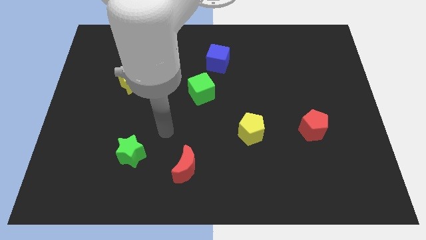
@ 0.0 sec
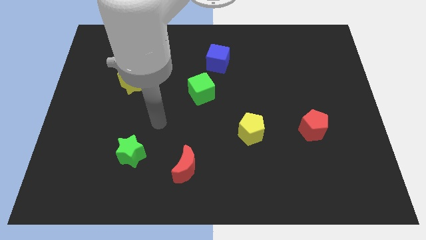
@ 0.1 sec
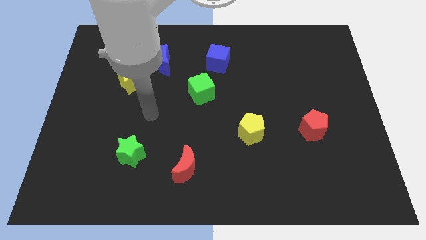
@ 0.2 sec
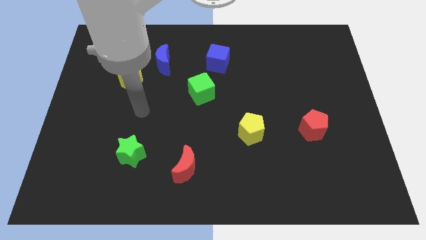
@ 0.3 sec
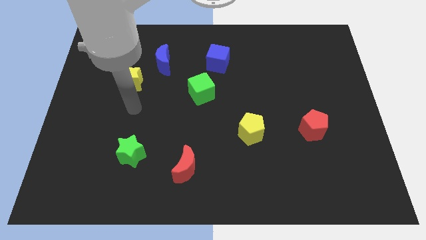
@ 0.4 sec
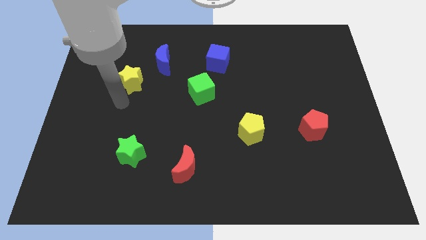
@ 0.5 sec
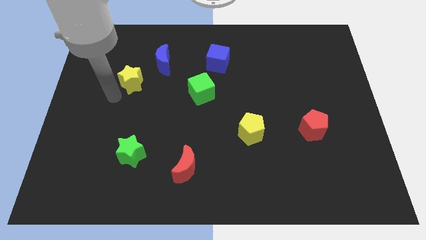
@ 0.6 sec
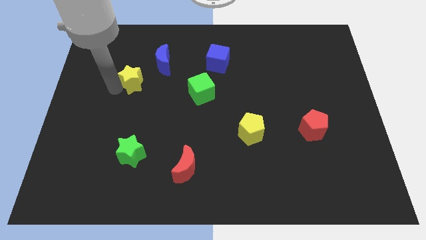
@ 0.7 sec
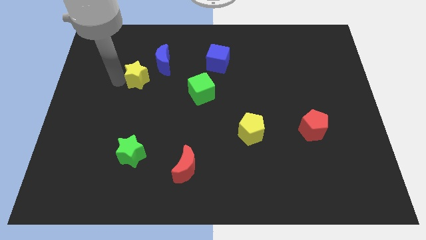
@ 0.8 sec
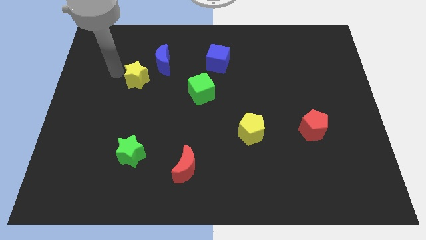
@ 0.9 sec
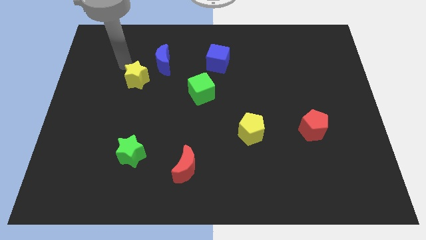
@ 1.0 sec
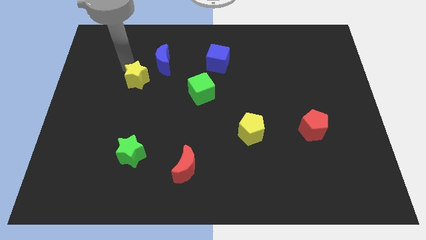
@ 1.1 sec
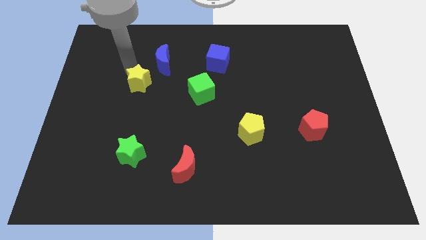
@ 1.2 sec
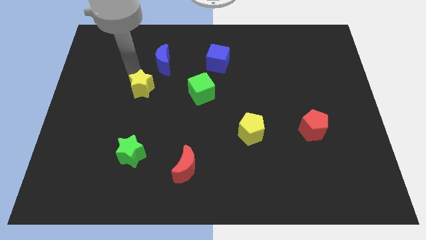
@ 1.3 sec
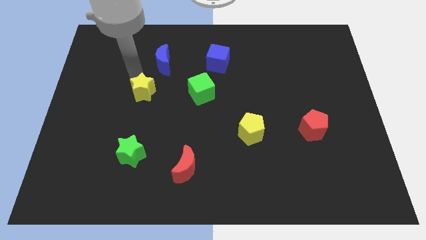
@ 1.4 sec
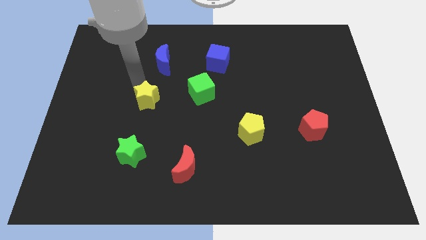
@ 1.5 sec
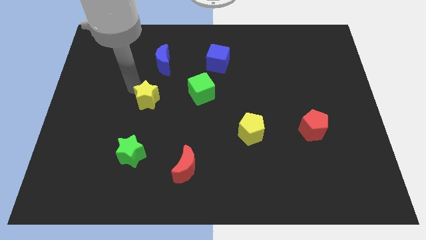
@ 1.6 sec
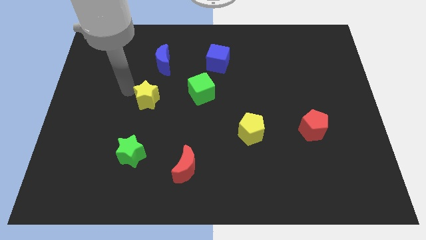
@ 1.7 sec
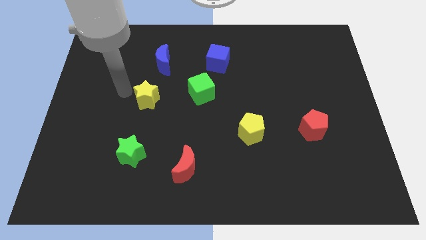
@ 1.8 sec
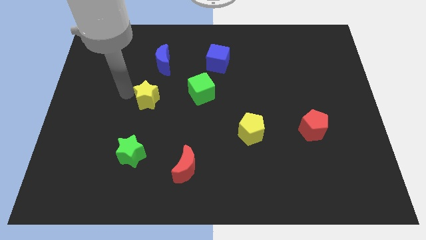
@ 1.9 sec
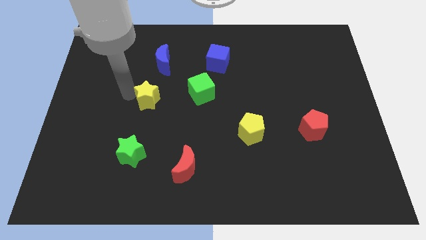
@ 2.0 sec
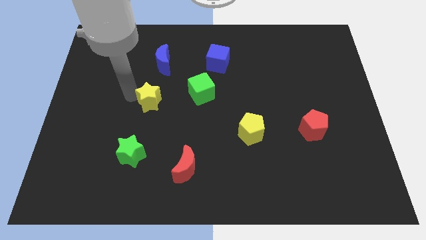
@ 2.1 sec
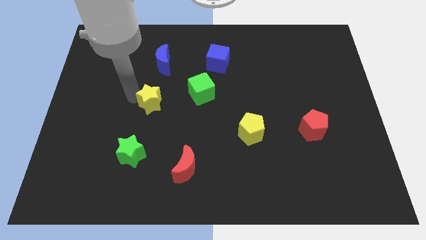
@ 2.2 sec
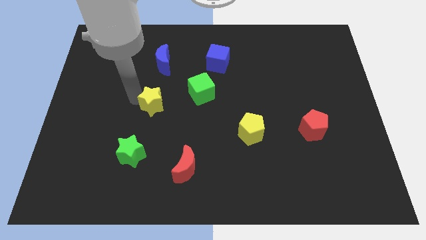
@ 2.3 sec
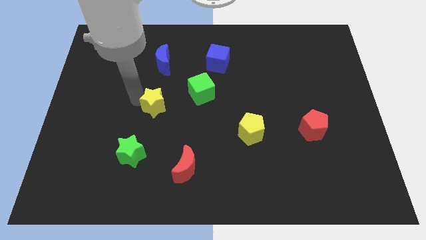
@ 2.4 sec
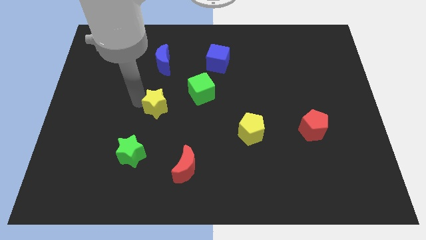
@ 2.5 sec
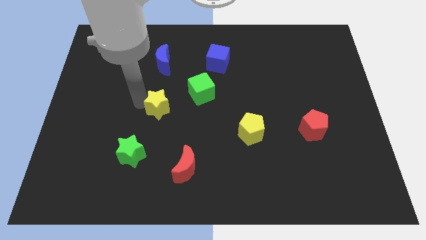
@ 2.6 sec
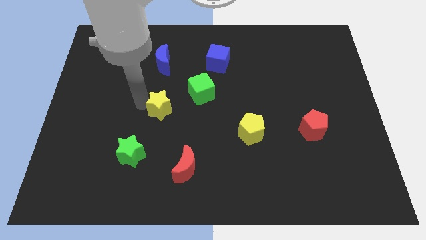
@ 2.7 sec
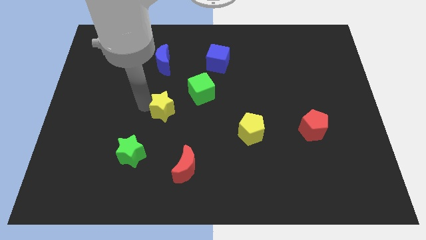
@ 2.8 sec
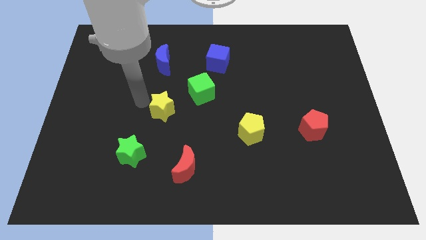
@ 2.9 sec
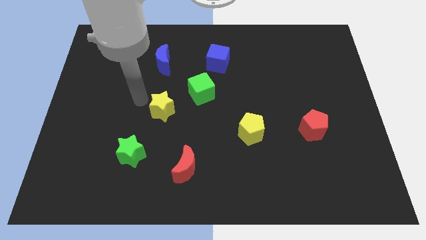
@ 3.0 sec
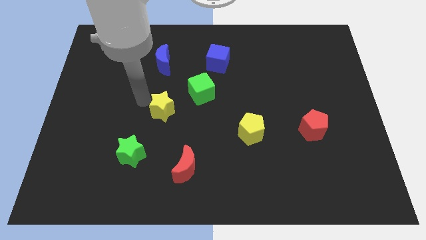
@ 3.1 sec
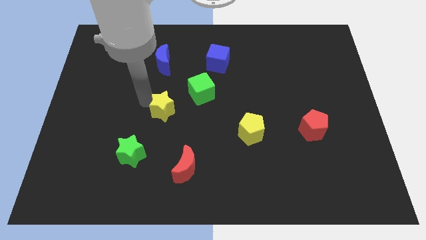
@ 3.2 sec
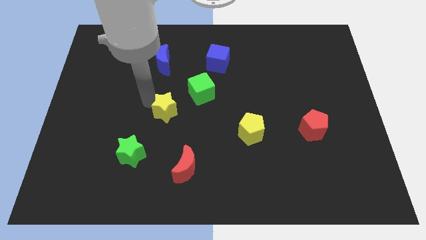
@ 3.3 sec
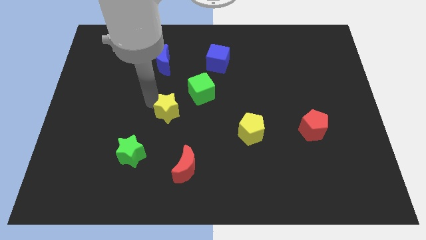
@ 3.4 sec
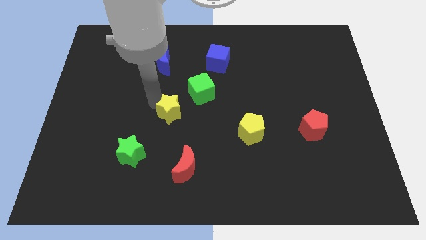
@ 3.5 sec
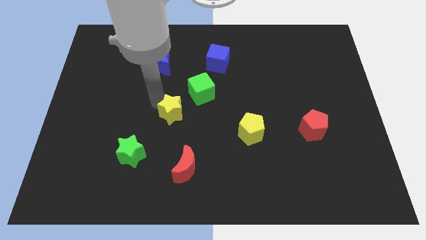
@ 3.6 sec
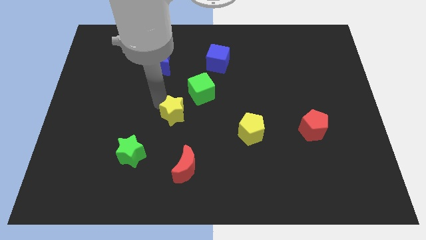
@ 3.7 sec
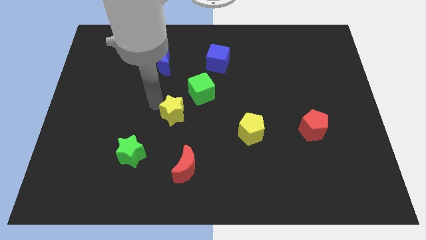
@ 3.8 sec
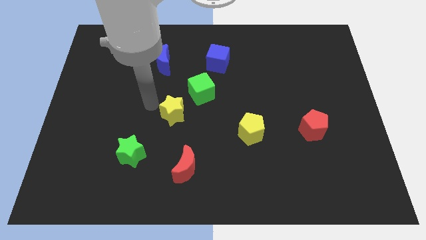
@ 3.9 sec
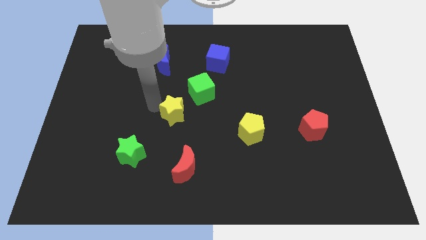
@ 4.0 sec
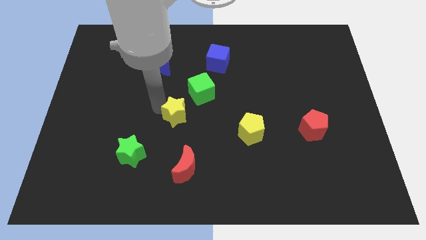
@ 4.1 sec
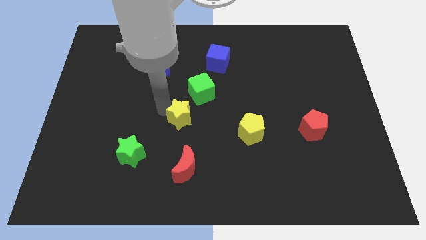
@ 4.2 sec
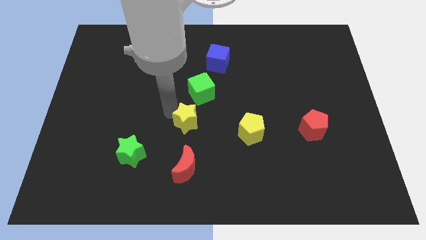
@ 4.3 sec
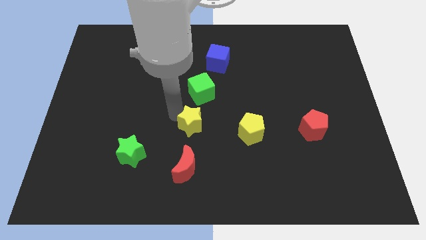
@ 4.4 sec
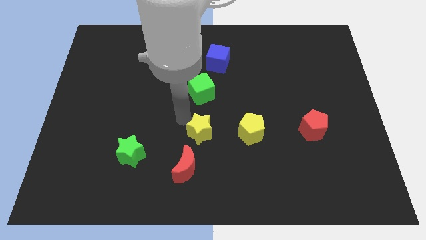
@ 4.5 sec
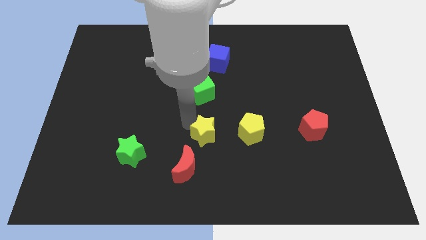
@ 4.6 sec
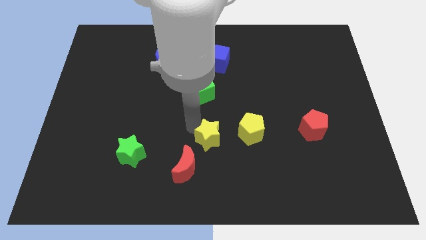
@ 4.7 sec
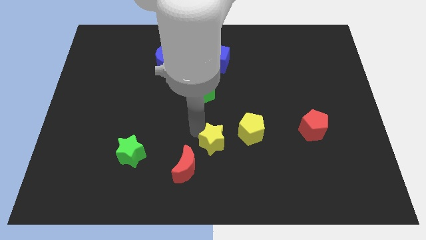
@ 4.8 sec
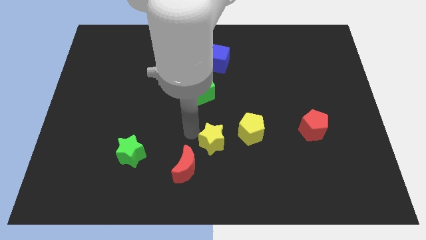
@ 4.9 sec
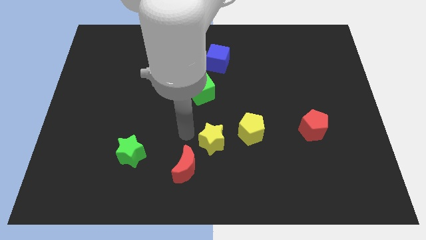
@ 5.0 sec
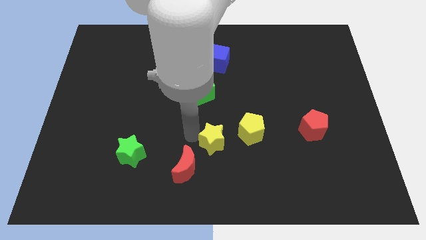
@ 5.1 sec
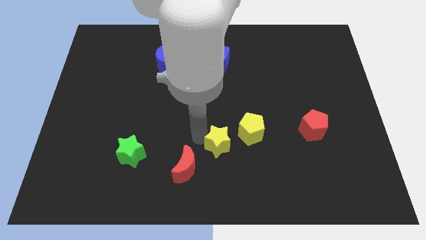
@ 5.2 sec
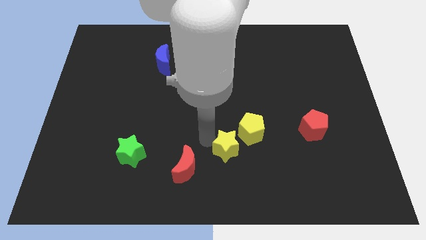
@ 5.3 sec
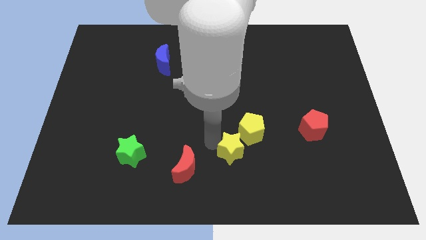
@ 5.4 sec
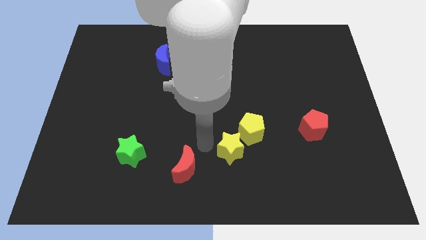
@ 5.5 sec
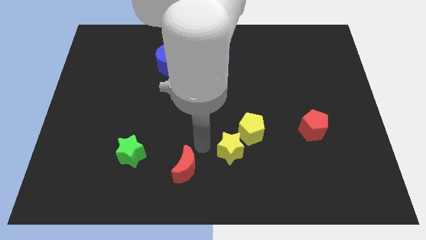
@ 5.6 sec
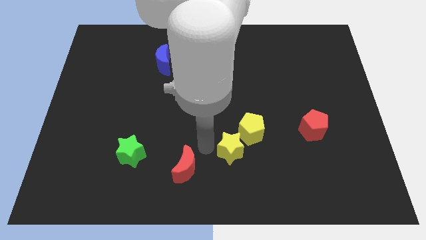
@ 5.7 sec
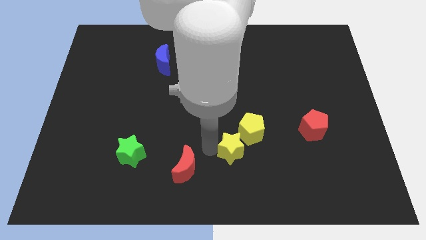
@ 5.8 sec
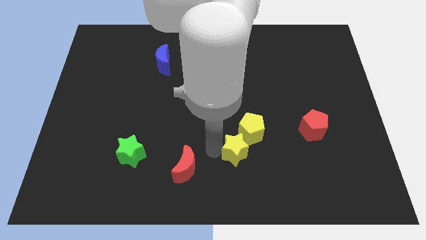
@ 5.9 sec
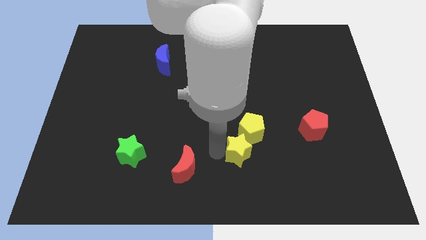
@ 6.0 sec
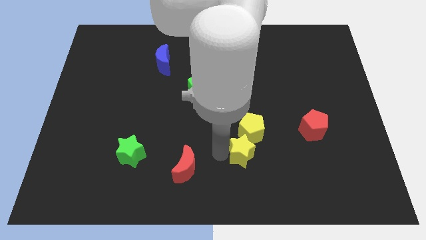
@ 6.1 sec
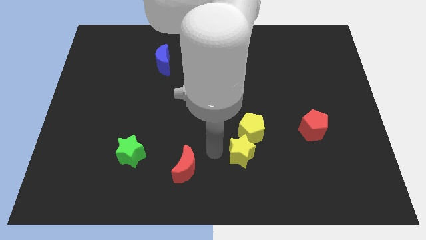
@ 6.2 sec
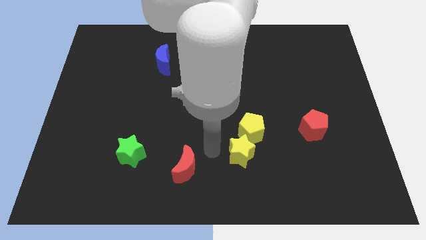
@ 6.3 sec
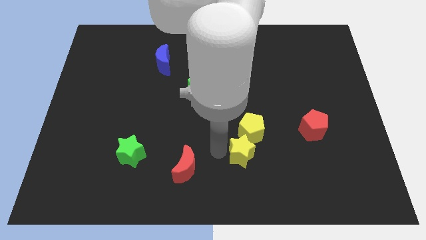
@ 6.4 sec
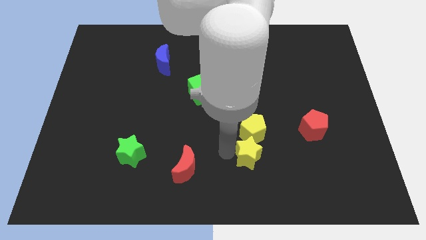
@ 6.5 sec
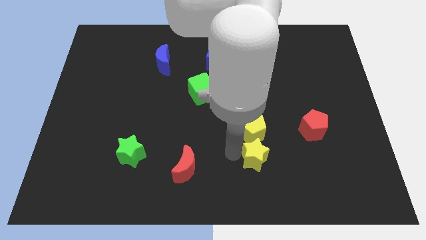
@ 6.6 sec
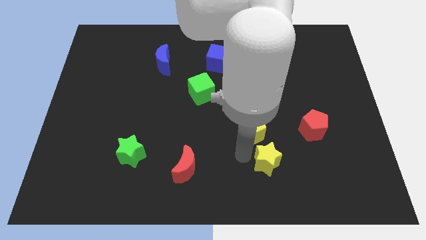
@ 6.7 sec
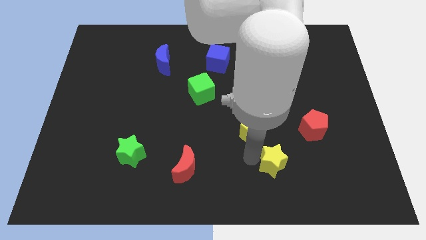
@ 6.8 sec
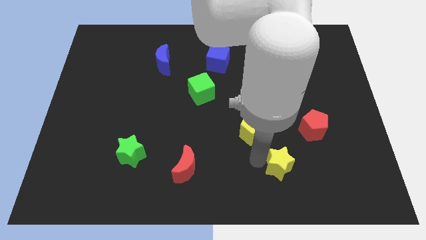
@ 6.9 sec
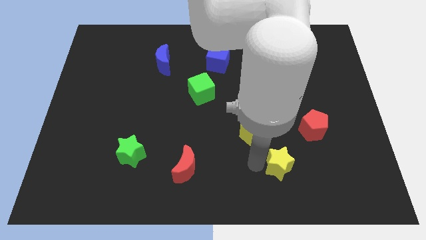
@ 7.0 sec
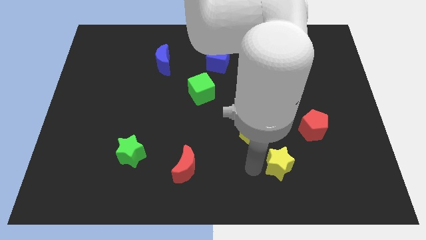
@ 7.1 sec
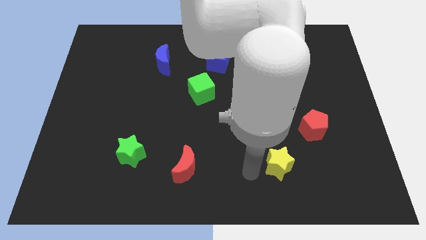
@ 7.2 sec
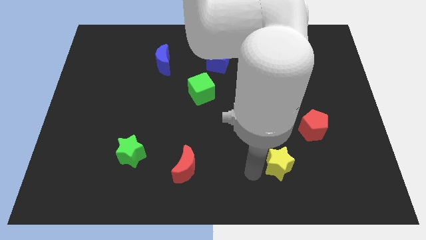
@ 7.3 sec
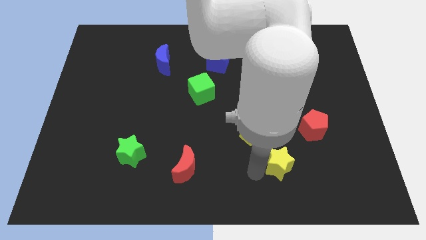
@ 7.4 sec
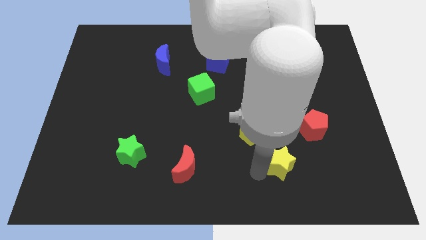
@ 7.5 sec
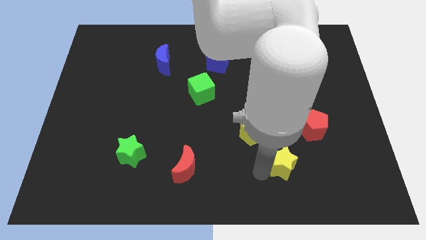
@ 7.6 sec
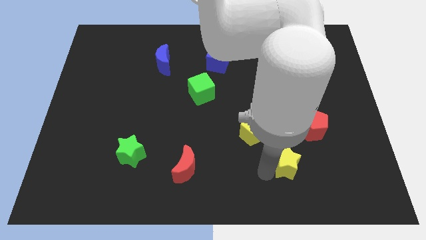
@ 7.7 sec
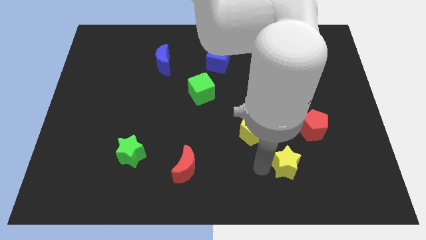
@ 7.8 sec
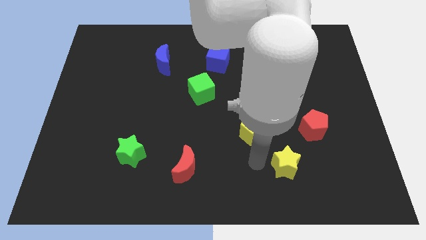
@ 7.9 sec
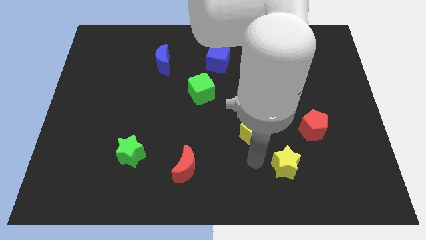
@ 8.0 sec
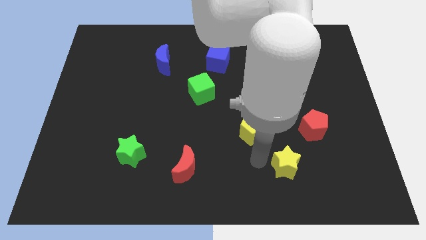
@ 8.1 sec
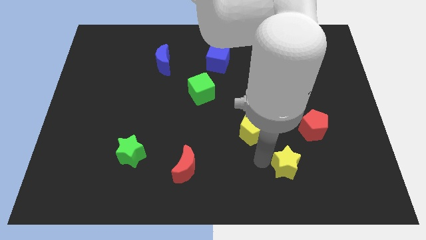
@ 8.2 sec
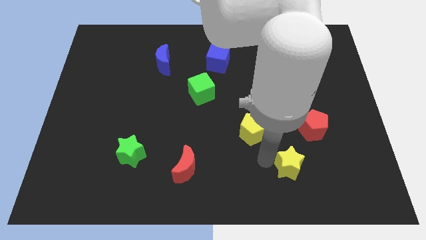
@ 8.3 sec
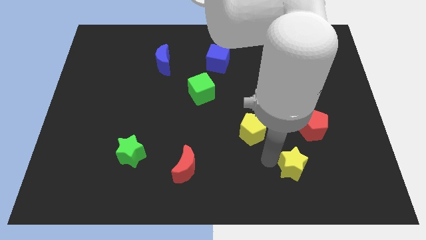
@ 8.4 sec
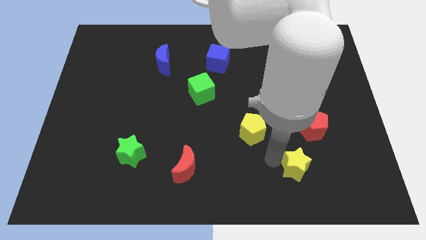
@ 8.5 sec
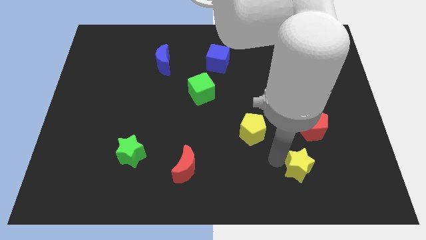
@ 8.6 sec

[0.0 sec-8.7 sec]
put the yellow star to the bottom side of the red pentagon
